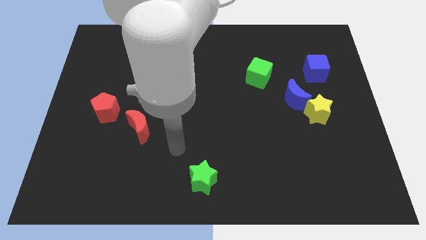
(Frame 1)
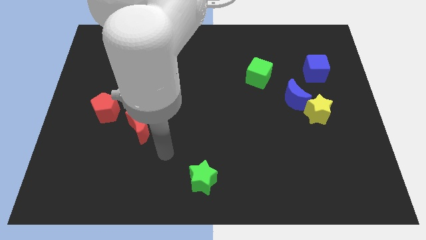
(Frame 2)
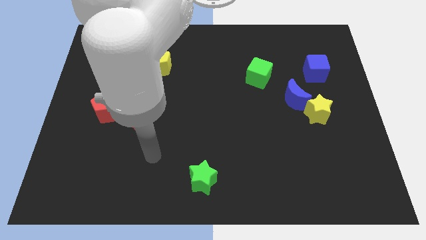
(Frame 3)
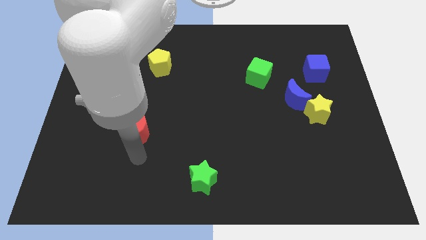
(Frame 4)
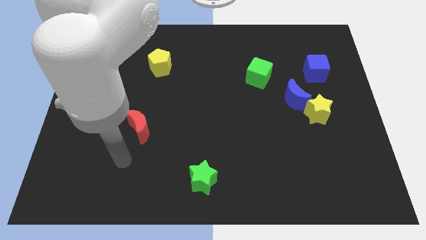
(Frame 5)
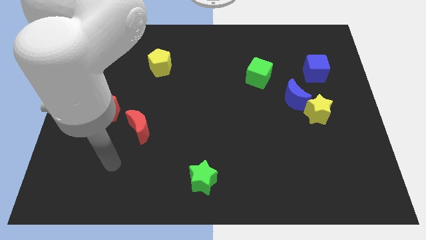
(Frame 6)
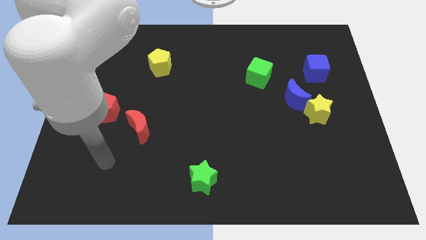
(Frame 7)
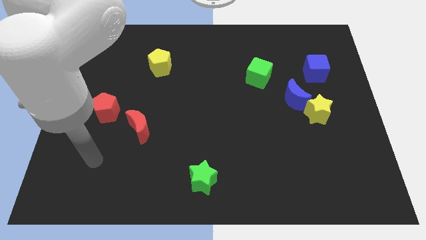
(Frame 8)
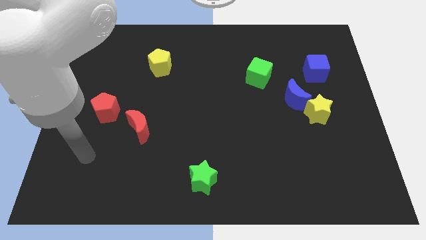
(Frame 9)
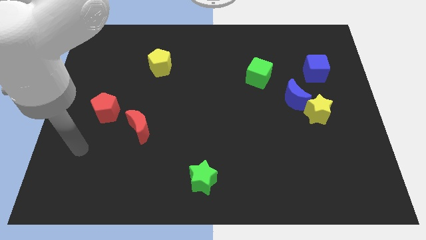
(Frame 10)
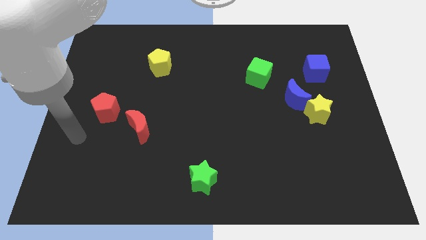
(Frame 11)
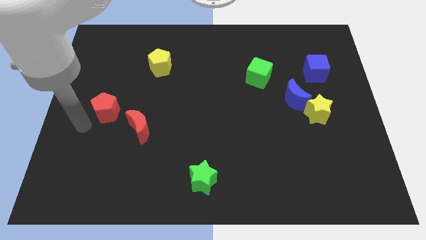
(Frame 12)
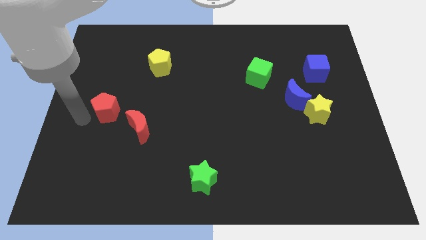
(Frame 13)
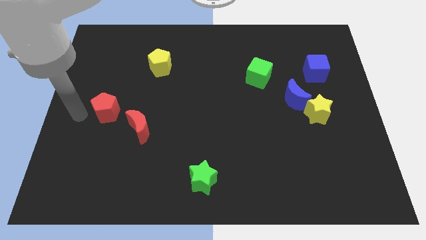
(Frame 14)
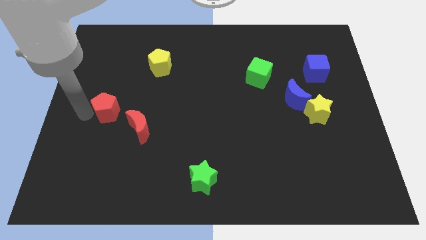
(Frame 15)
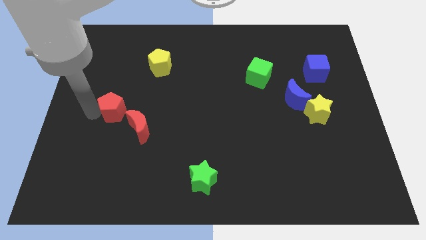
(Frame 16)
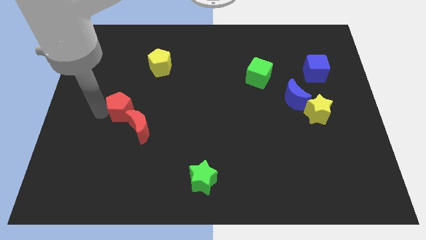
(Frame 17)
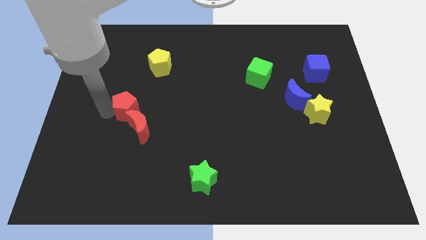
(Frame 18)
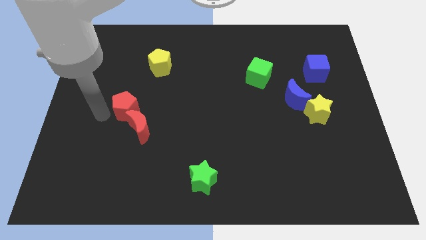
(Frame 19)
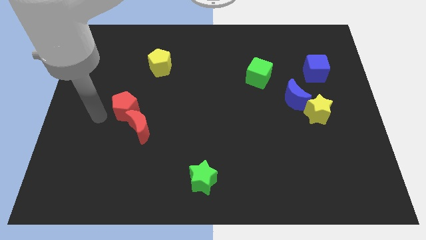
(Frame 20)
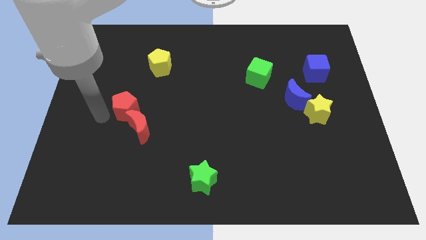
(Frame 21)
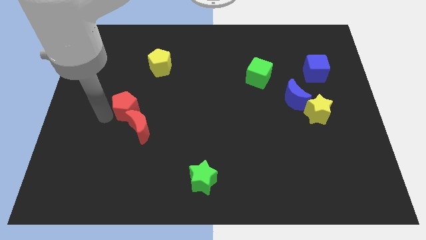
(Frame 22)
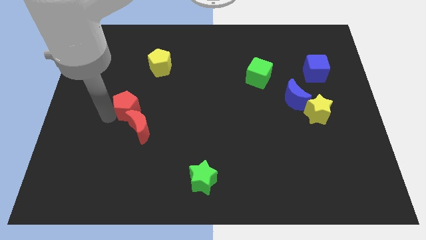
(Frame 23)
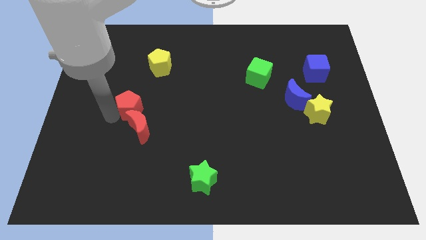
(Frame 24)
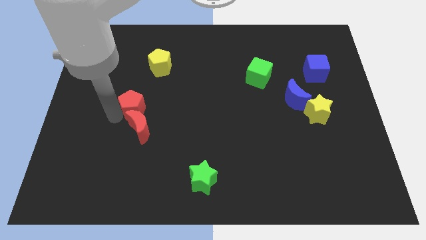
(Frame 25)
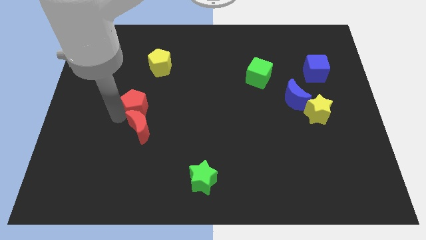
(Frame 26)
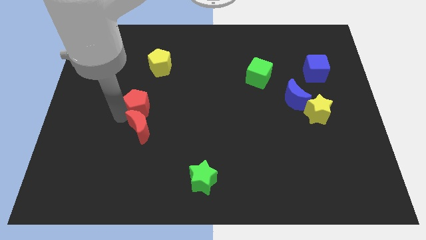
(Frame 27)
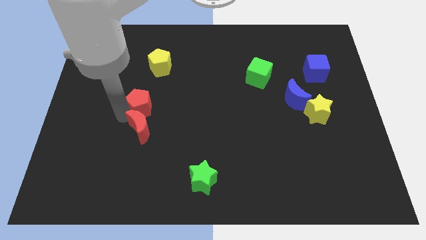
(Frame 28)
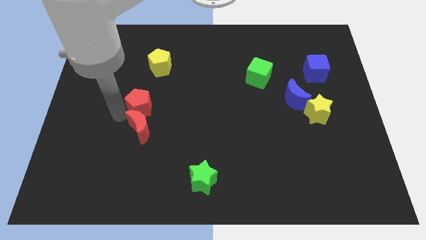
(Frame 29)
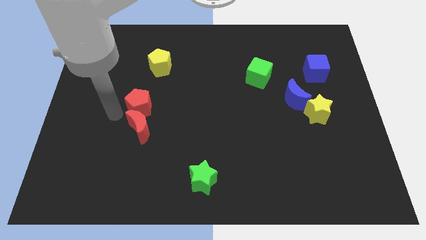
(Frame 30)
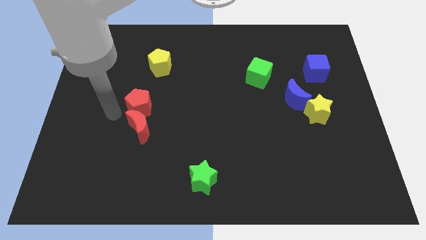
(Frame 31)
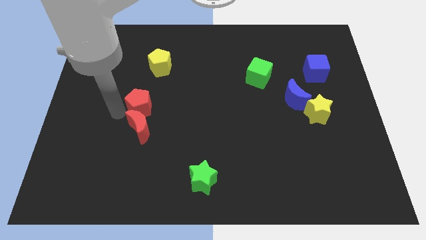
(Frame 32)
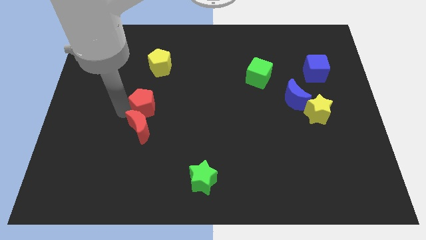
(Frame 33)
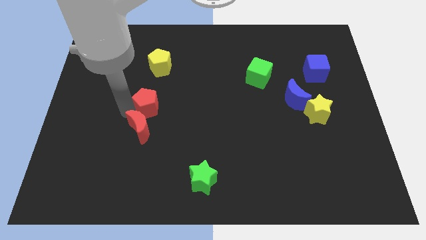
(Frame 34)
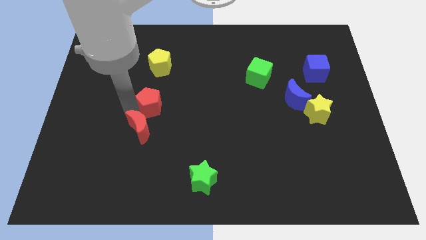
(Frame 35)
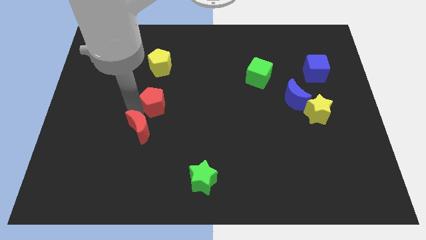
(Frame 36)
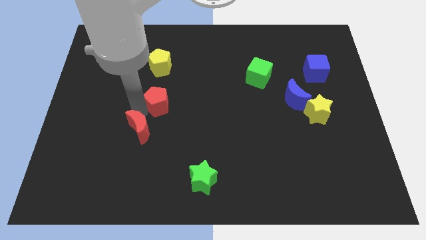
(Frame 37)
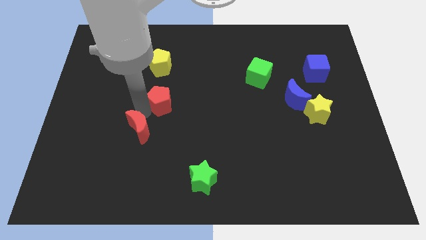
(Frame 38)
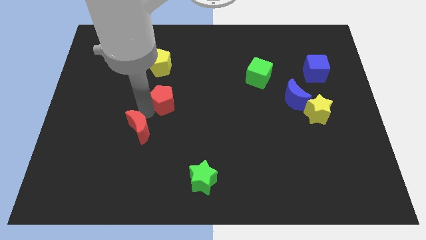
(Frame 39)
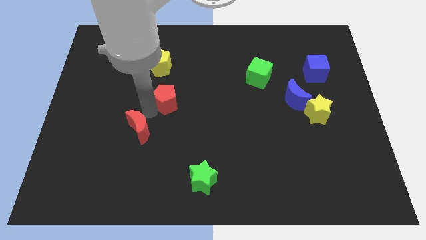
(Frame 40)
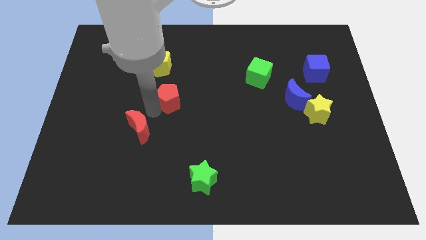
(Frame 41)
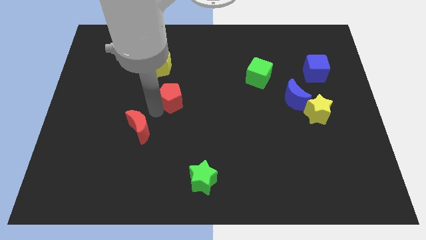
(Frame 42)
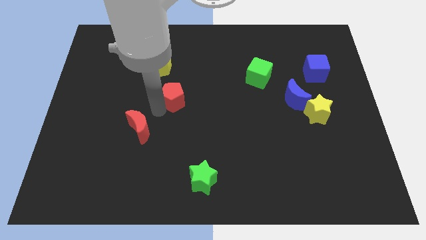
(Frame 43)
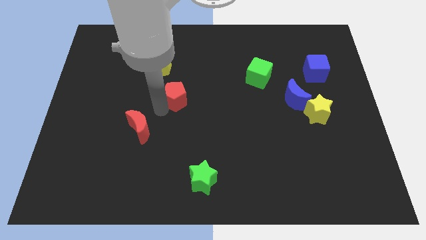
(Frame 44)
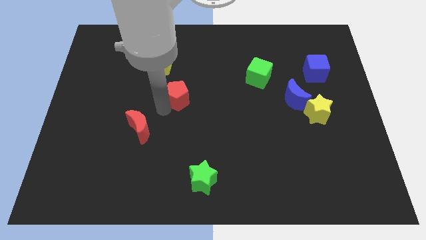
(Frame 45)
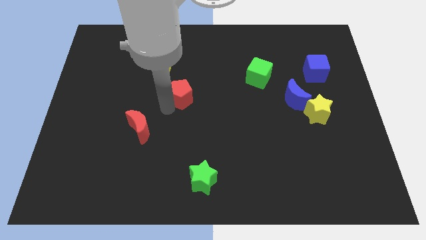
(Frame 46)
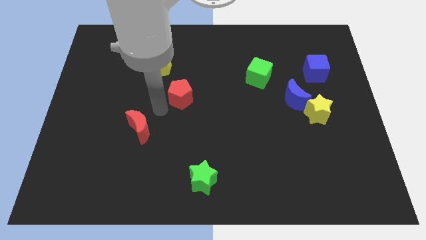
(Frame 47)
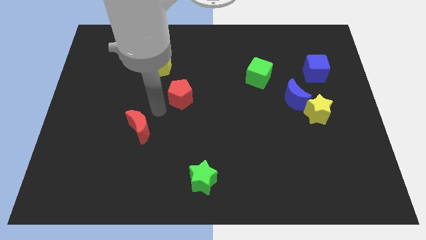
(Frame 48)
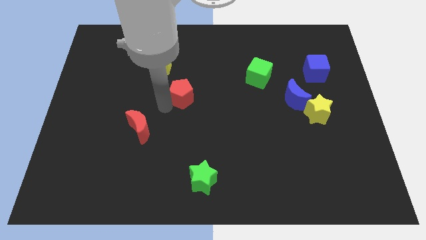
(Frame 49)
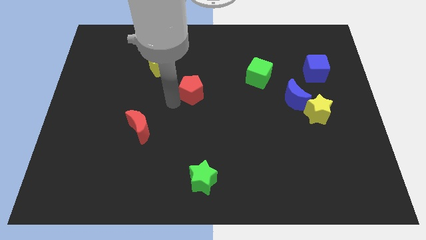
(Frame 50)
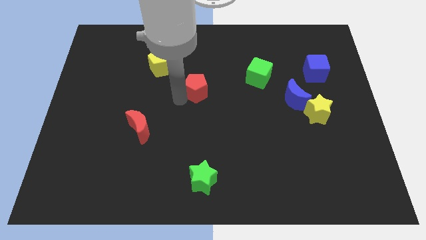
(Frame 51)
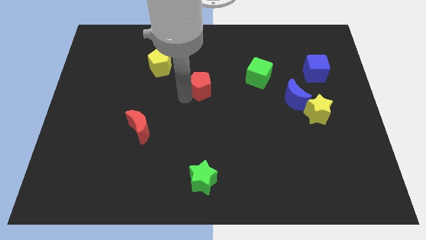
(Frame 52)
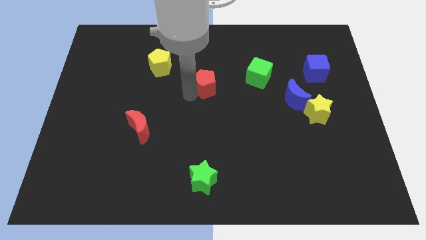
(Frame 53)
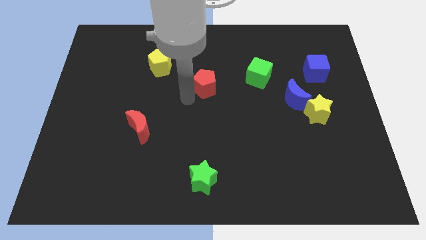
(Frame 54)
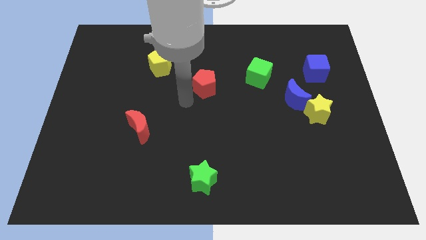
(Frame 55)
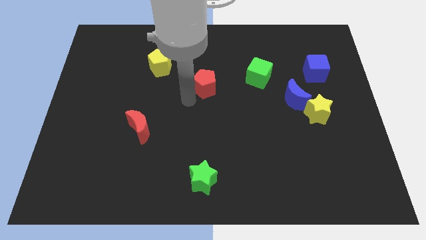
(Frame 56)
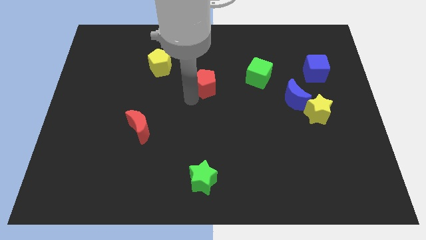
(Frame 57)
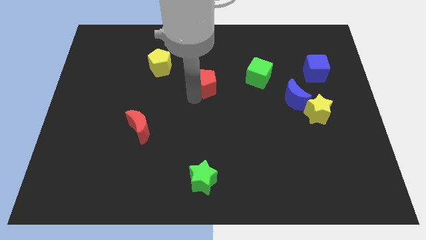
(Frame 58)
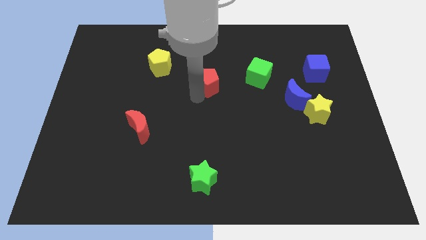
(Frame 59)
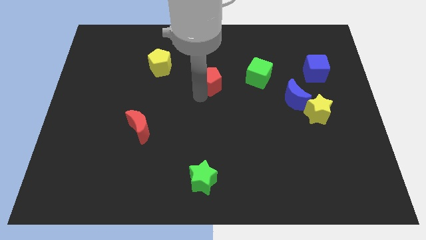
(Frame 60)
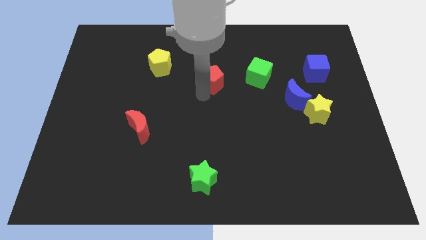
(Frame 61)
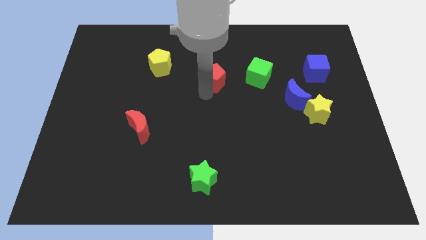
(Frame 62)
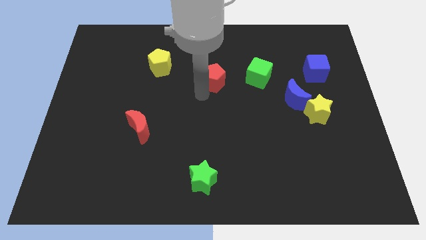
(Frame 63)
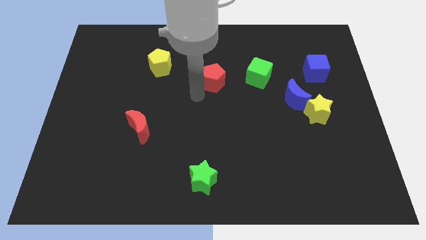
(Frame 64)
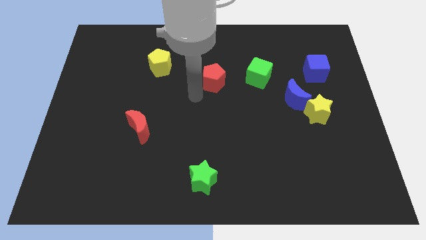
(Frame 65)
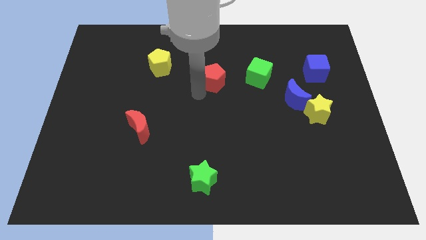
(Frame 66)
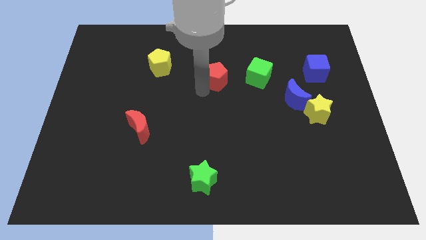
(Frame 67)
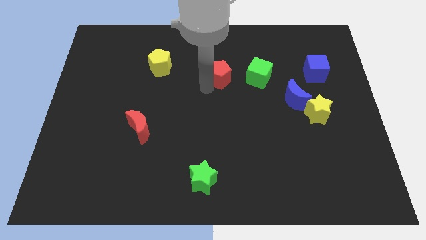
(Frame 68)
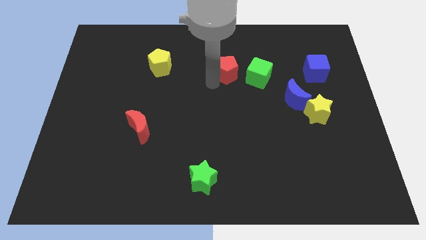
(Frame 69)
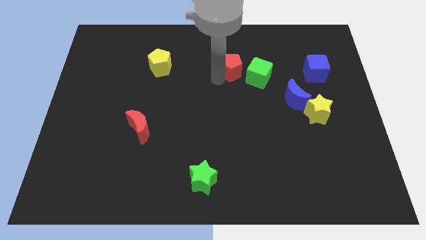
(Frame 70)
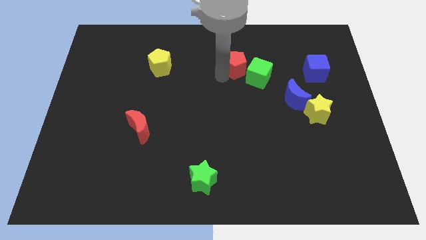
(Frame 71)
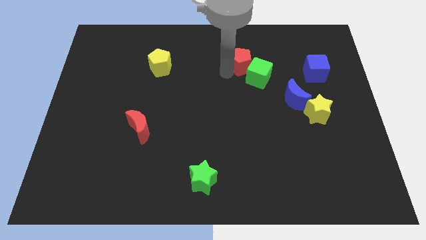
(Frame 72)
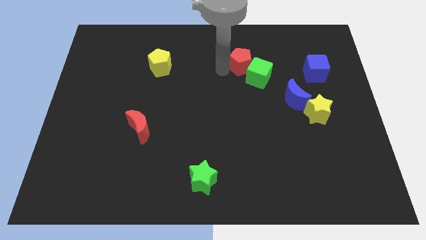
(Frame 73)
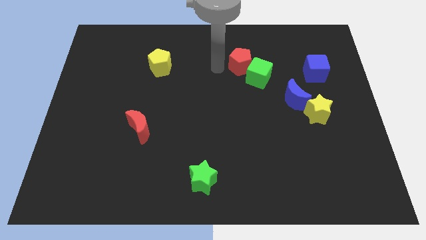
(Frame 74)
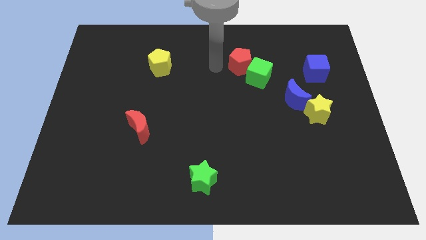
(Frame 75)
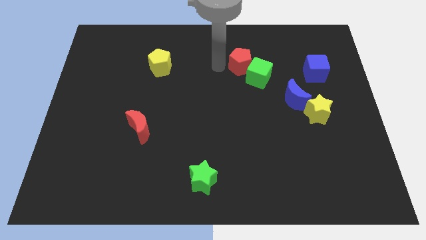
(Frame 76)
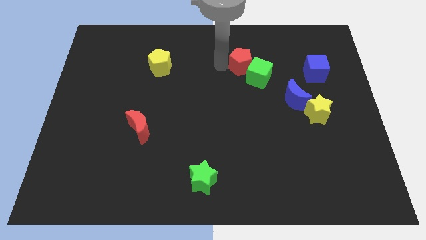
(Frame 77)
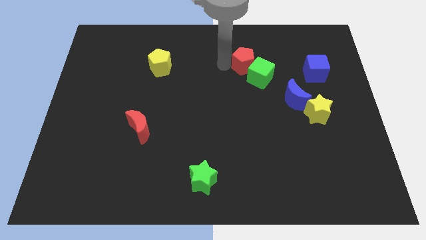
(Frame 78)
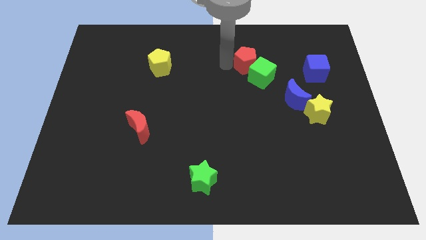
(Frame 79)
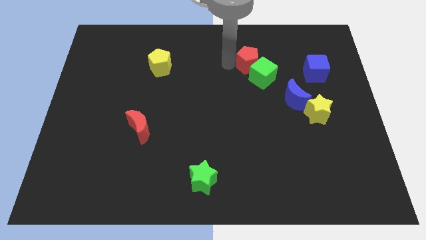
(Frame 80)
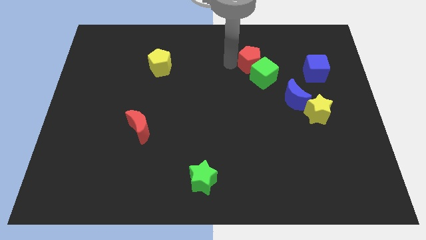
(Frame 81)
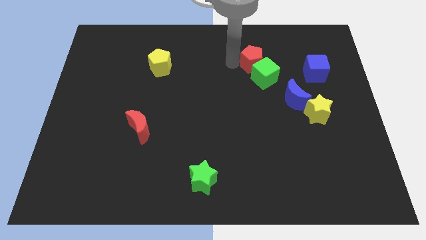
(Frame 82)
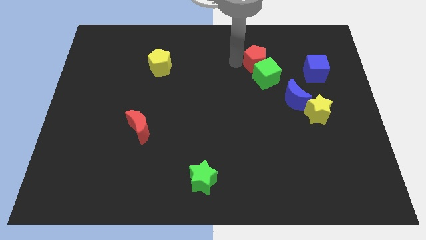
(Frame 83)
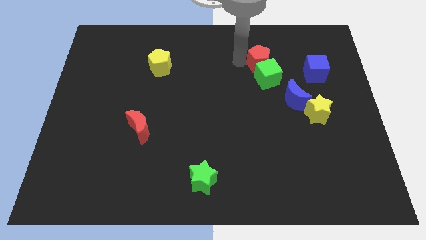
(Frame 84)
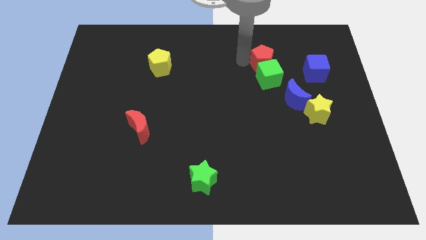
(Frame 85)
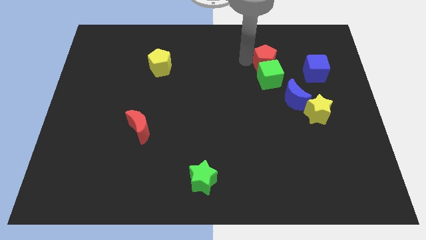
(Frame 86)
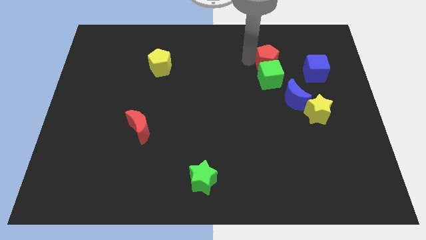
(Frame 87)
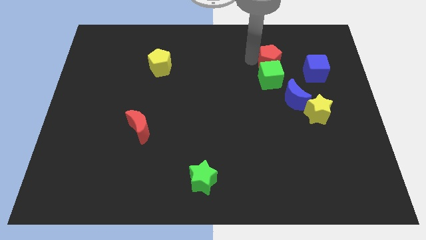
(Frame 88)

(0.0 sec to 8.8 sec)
push the red pentagon to the top side of the blue moon
